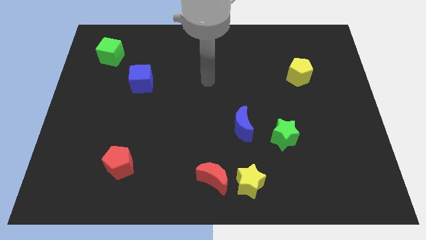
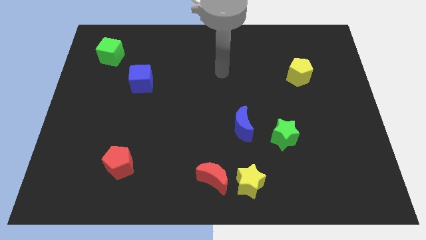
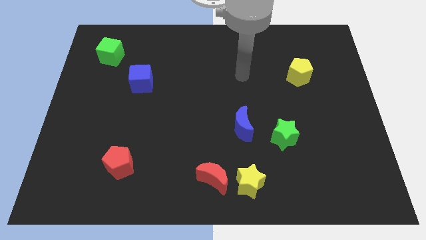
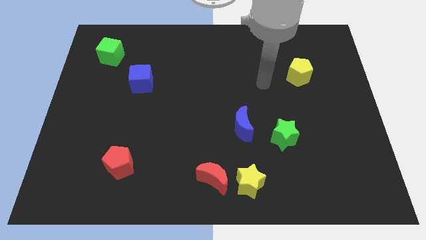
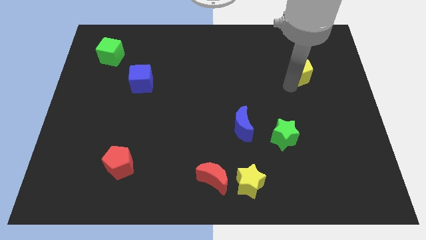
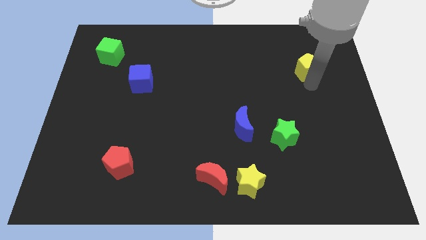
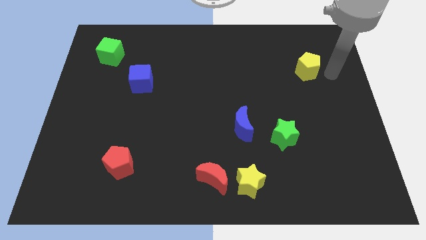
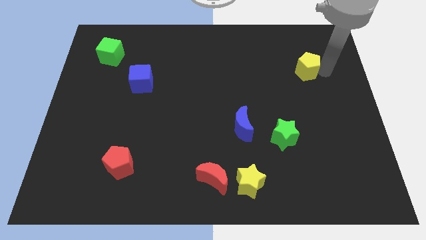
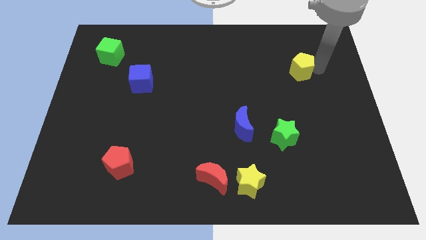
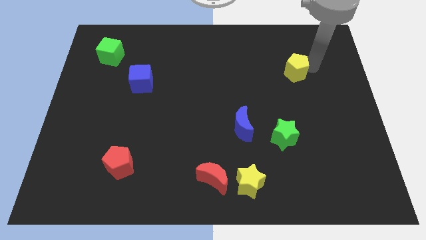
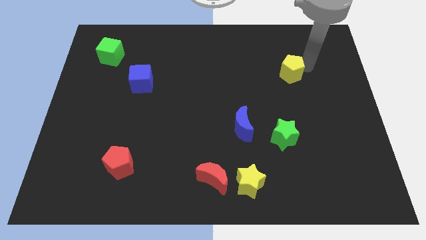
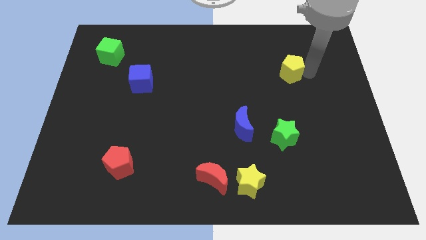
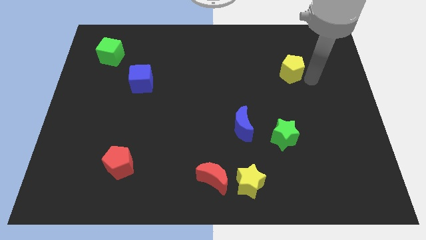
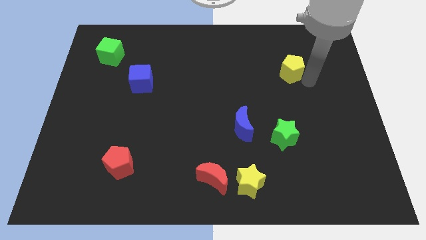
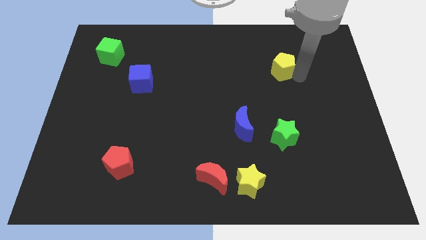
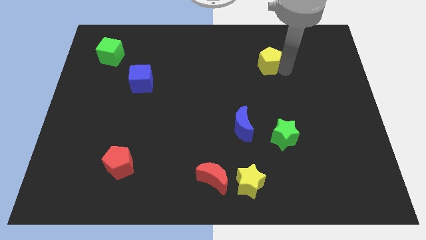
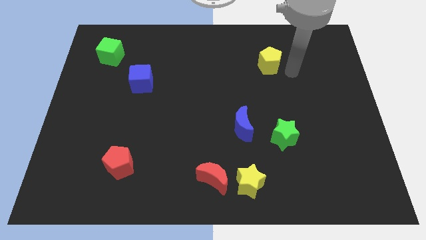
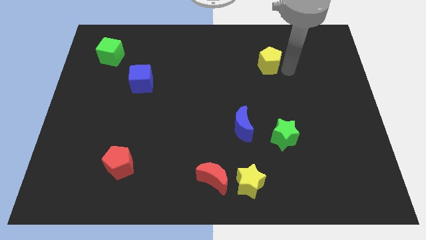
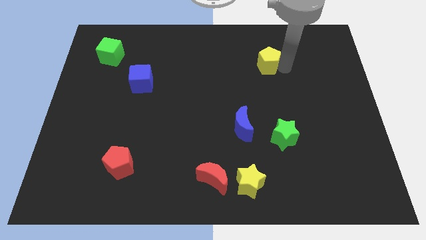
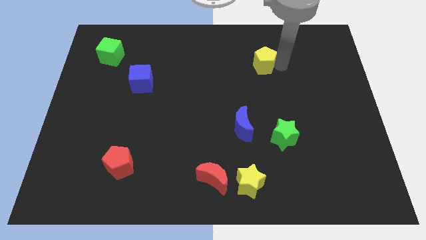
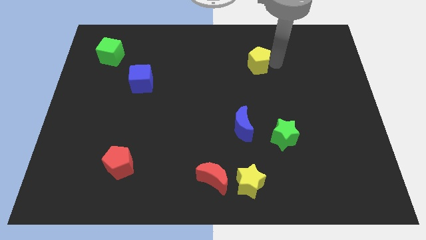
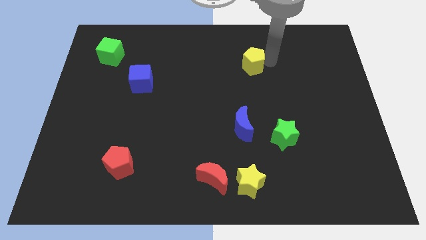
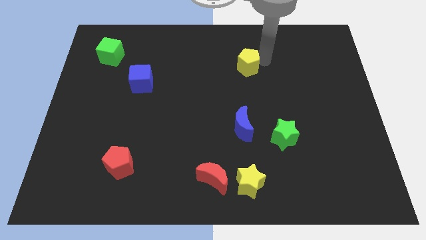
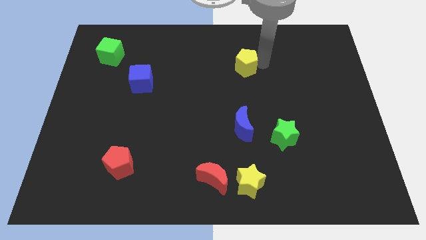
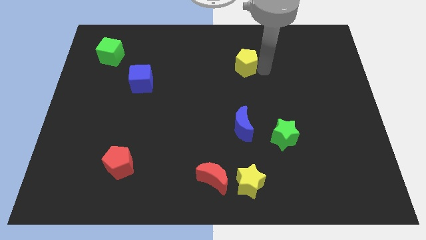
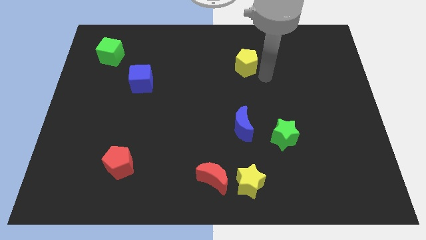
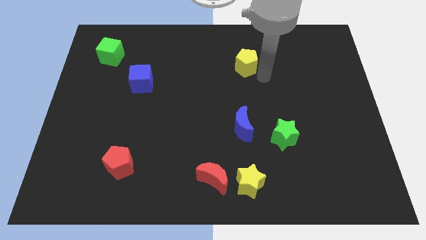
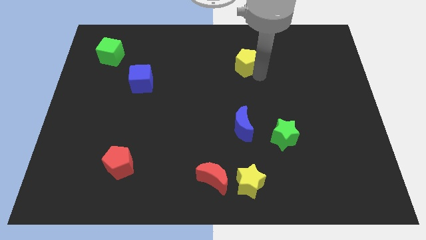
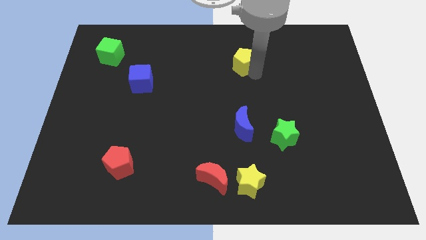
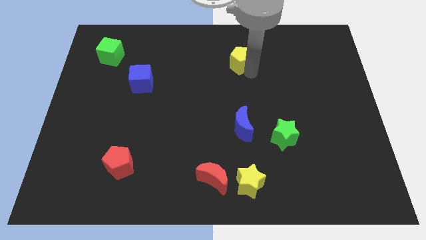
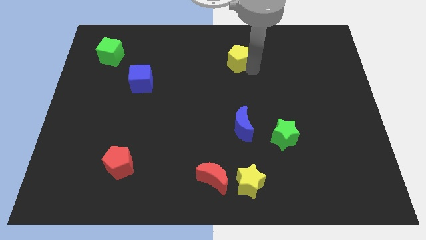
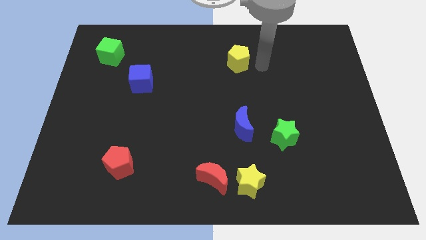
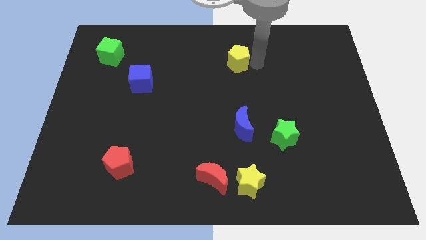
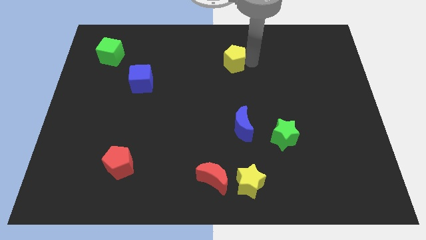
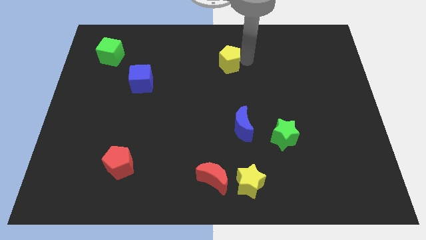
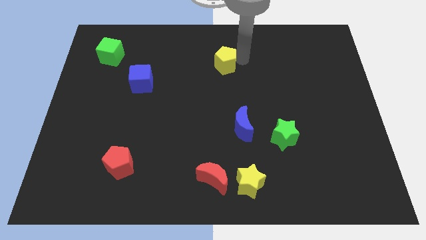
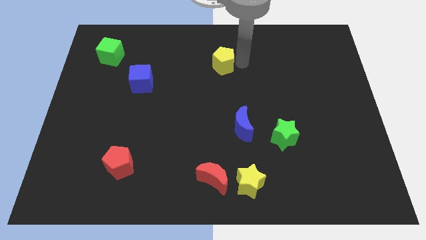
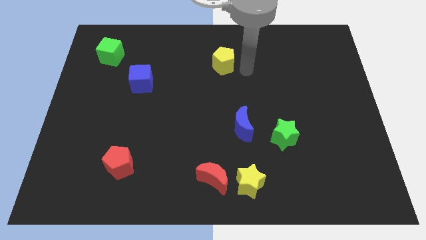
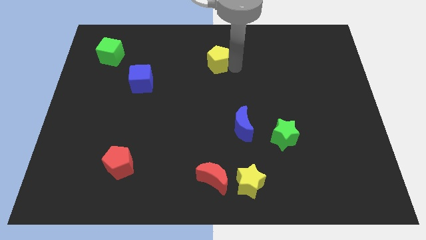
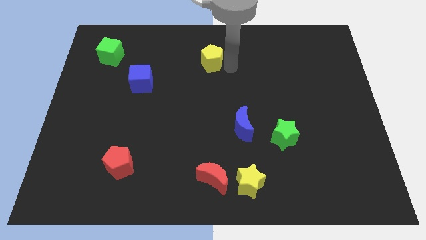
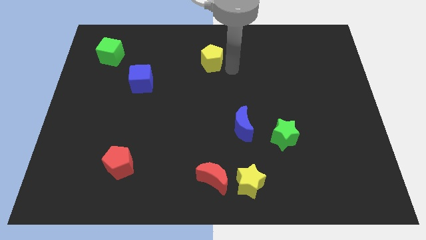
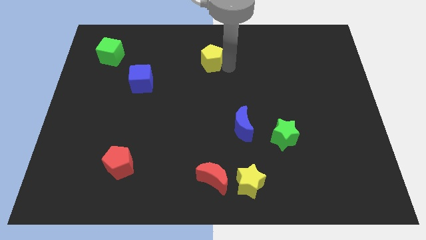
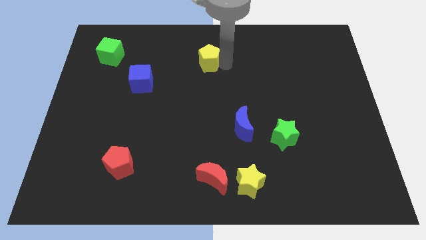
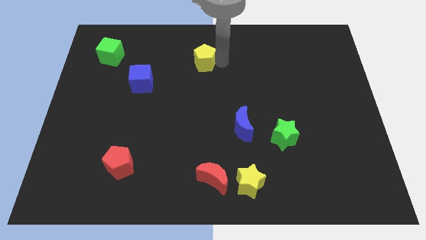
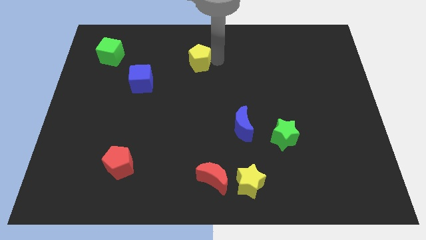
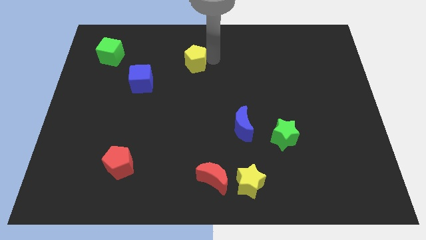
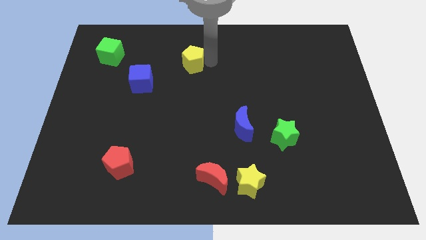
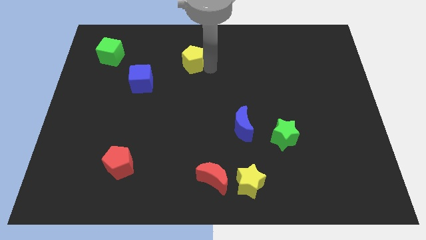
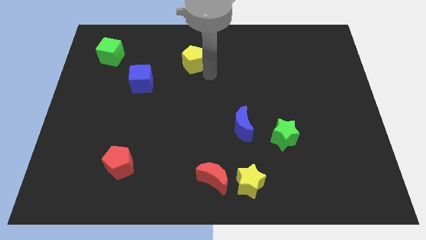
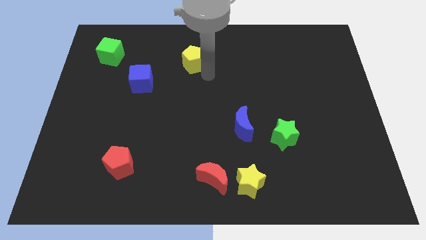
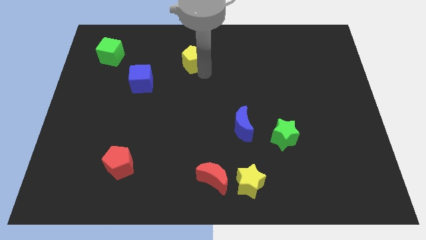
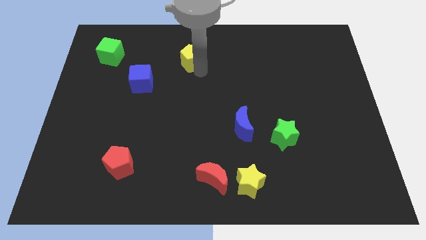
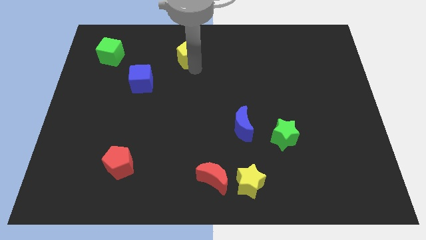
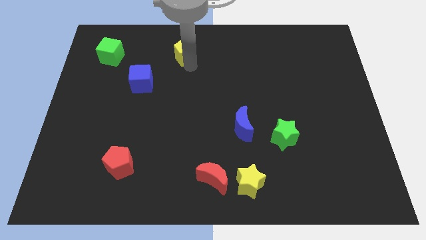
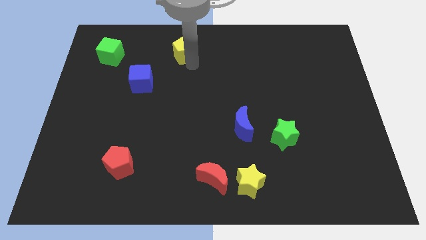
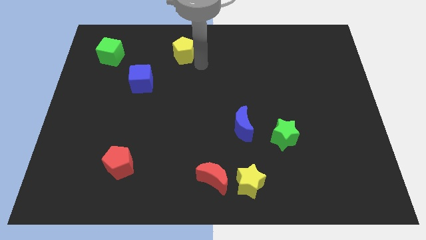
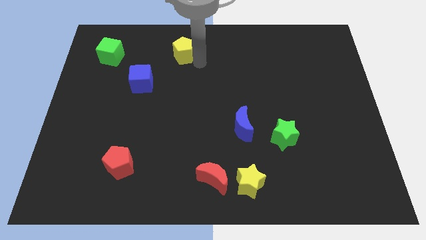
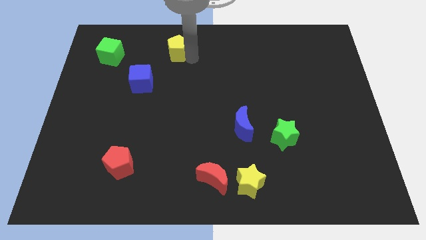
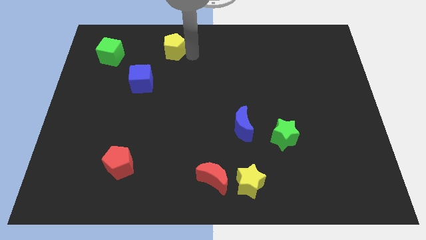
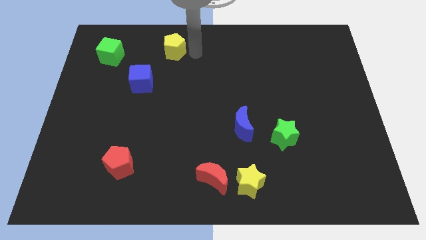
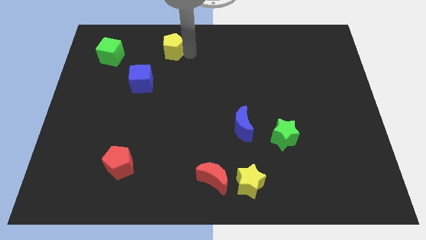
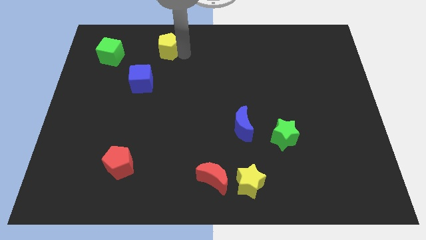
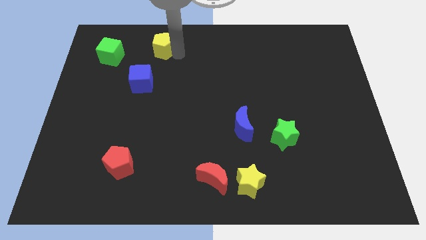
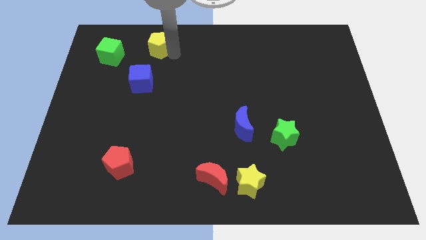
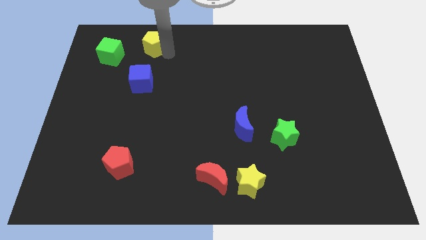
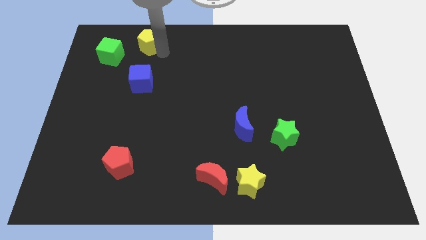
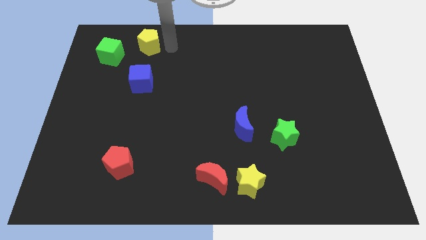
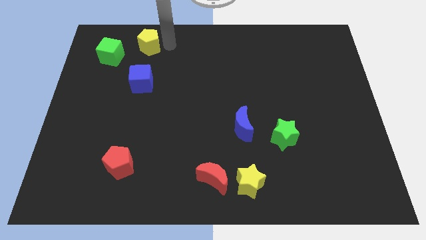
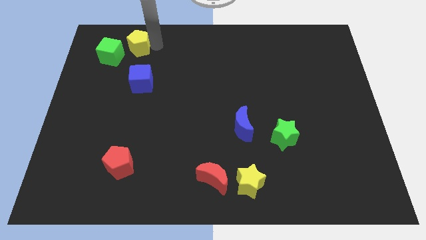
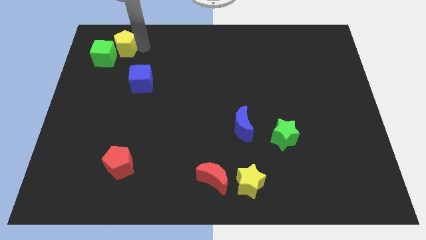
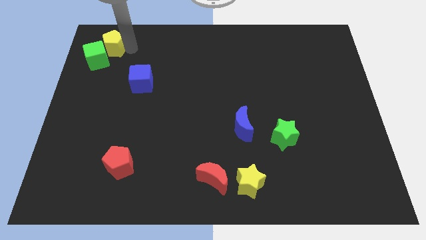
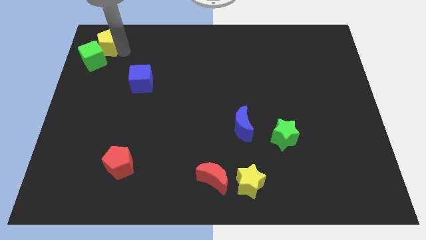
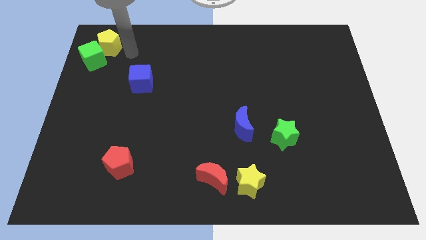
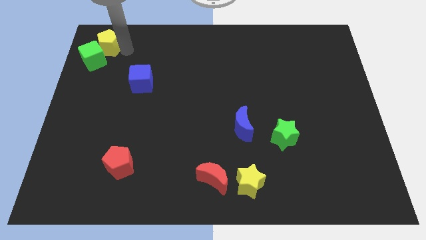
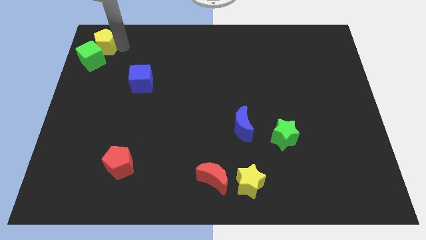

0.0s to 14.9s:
push the yellow pentagon to the top left

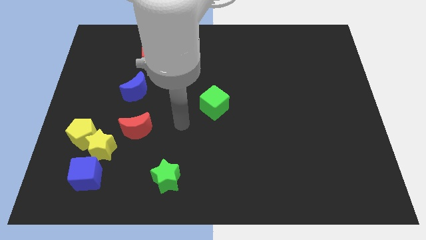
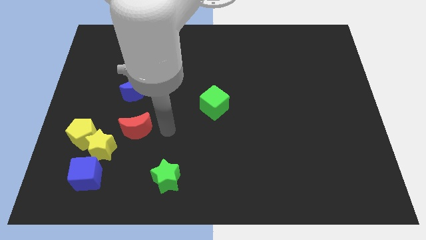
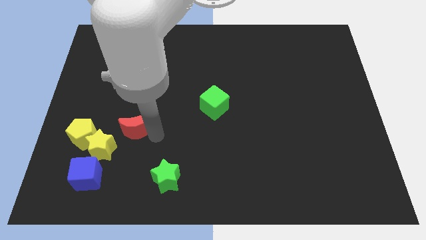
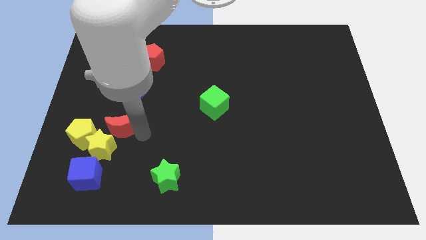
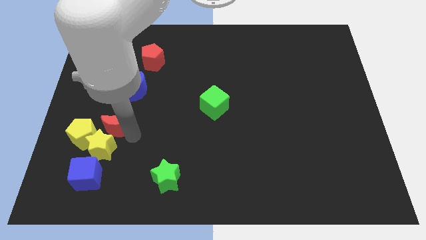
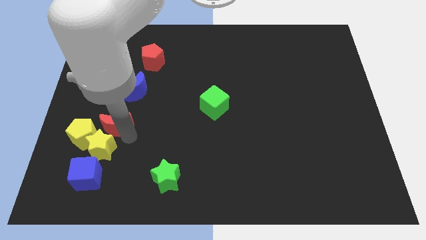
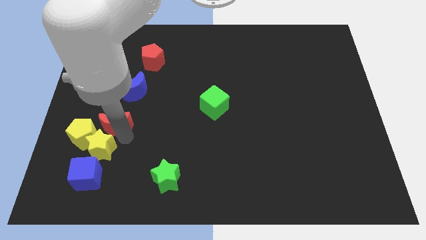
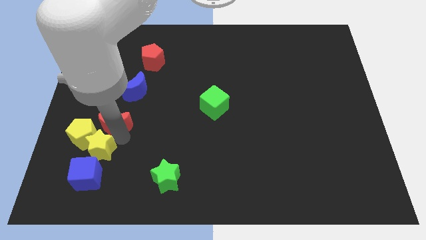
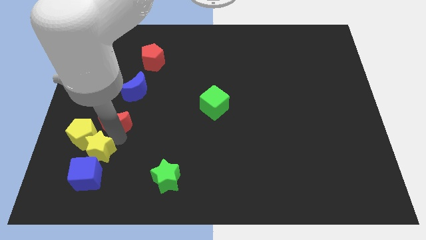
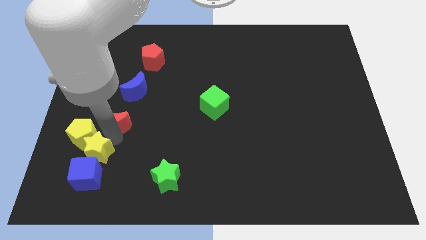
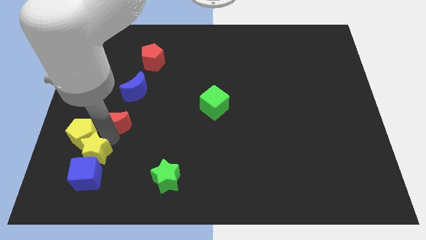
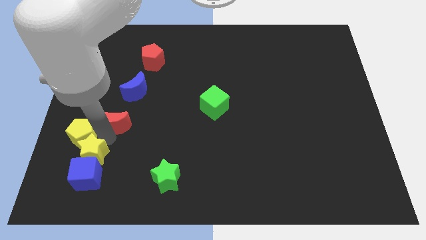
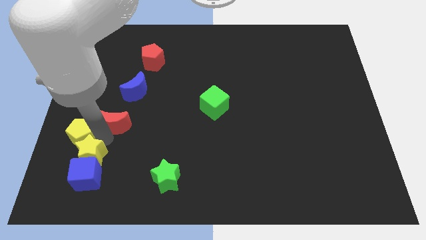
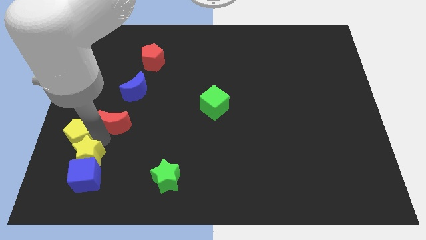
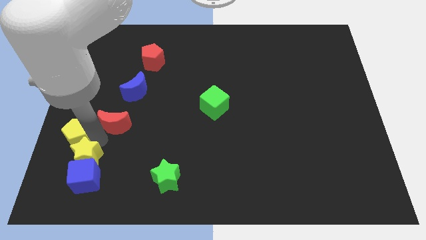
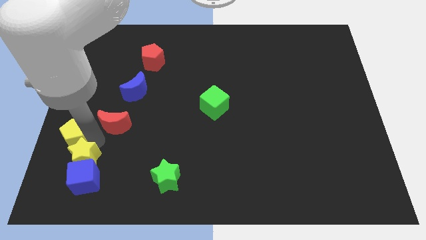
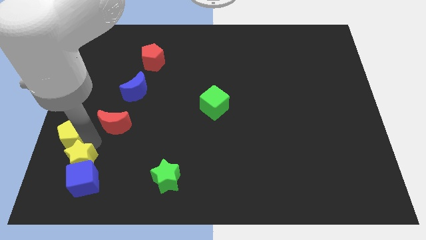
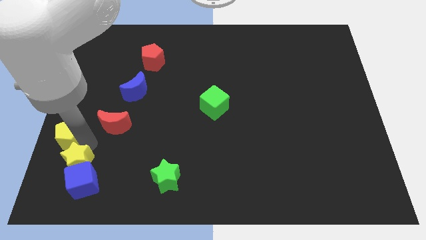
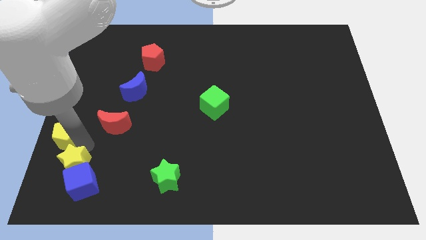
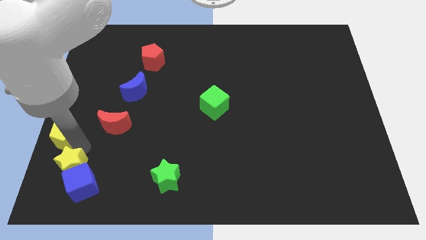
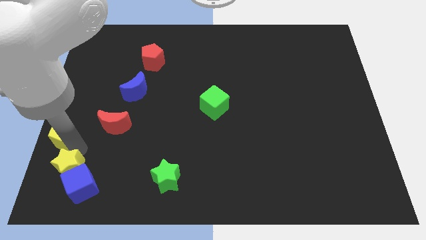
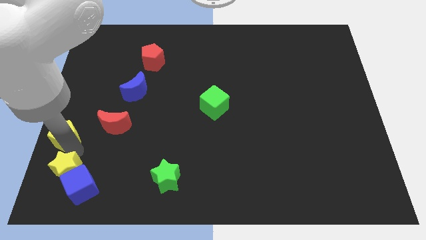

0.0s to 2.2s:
push the yellow star to the bottom left corner
